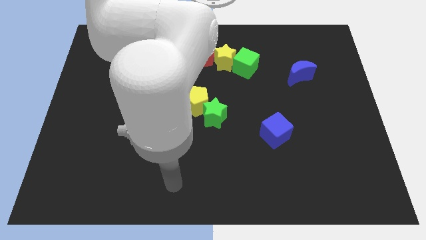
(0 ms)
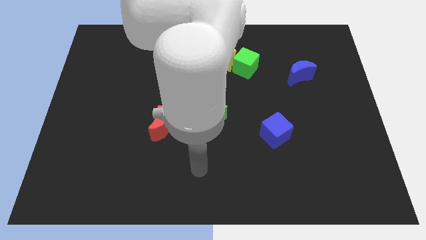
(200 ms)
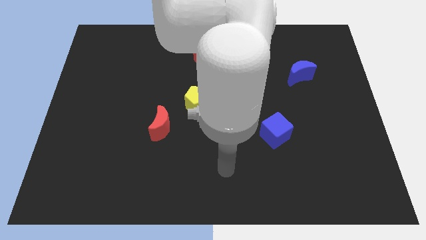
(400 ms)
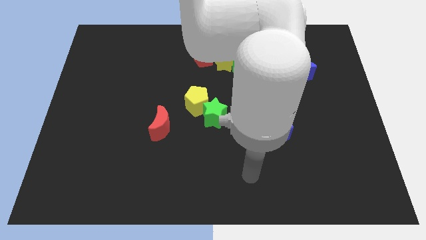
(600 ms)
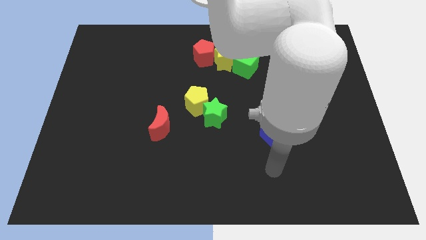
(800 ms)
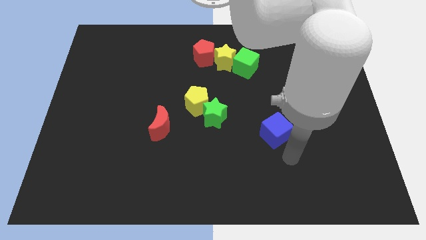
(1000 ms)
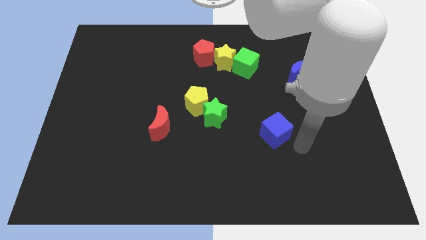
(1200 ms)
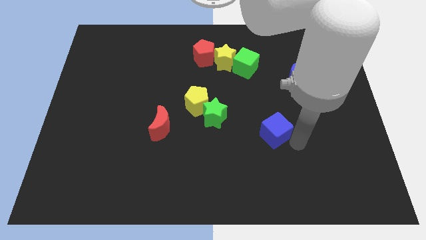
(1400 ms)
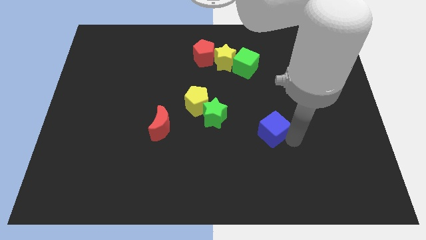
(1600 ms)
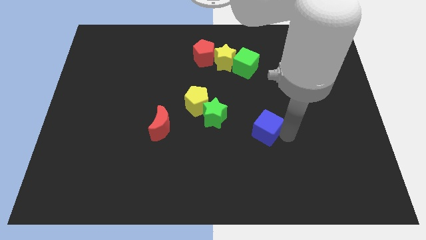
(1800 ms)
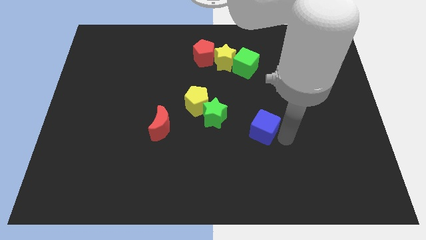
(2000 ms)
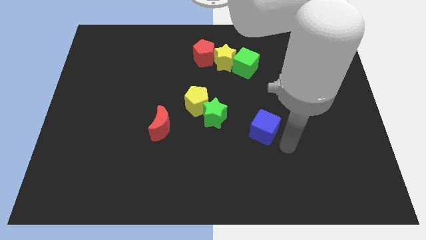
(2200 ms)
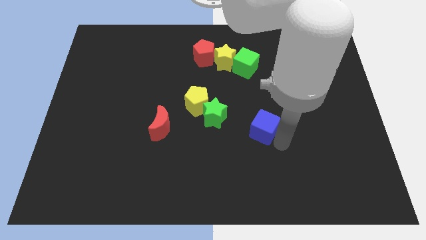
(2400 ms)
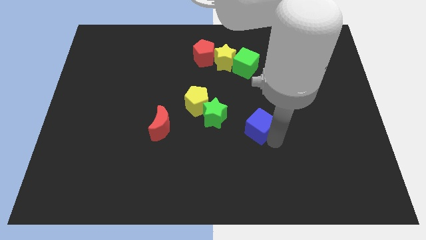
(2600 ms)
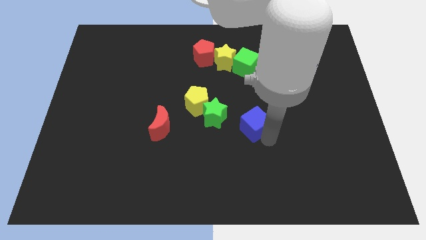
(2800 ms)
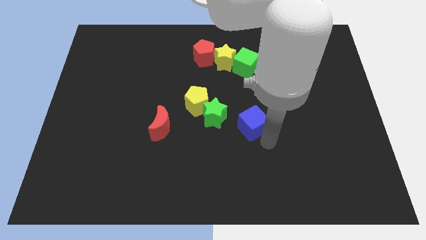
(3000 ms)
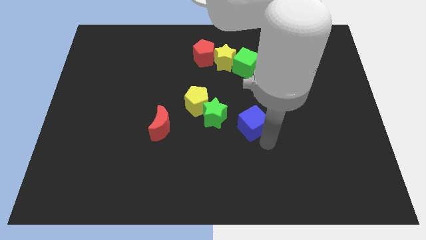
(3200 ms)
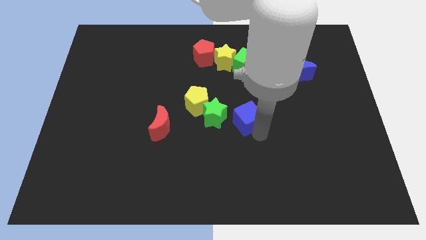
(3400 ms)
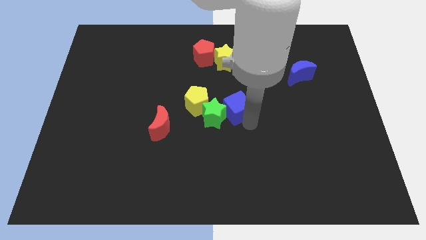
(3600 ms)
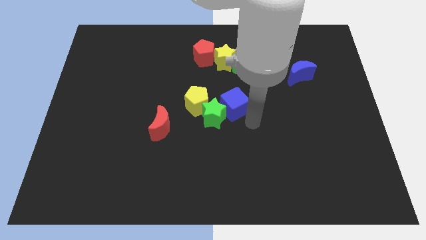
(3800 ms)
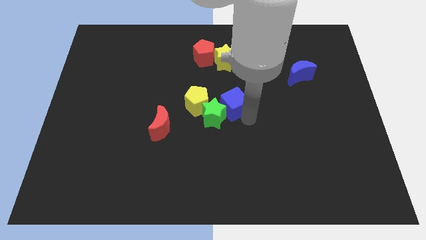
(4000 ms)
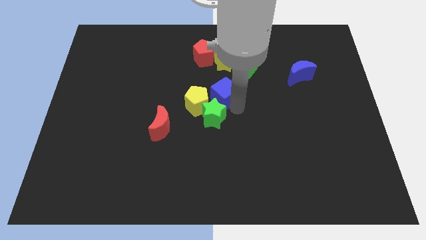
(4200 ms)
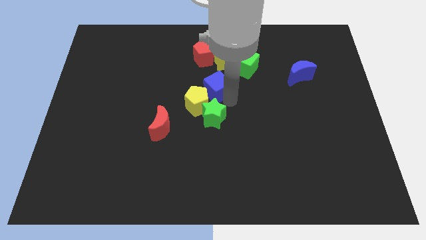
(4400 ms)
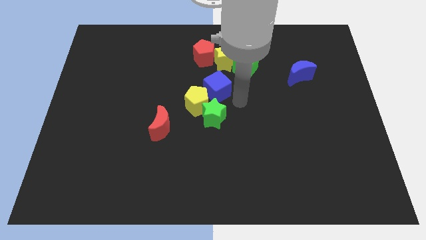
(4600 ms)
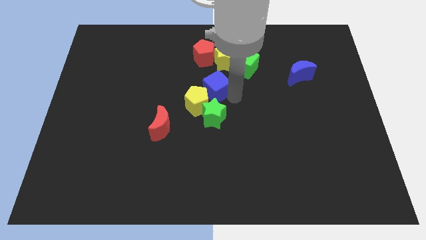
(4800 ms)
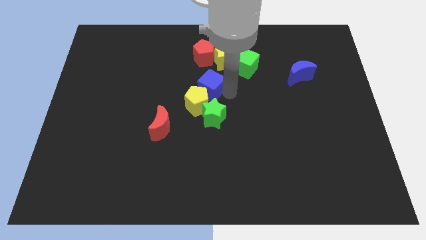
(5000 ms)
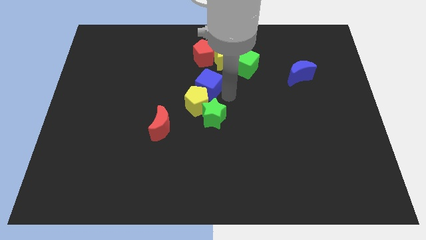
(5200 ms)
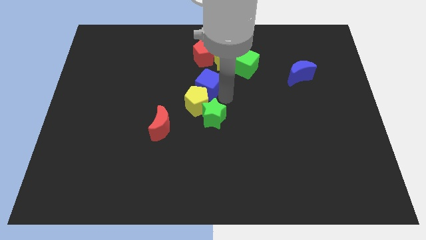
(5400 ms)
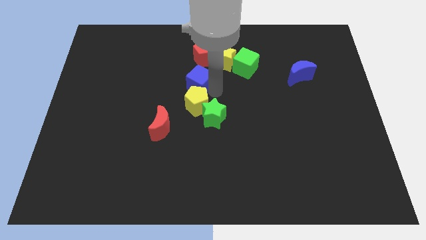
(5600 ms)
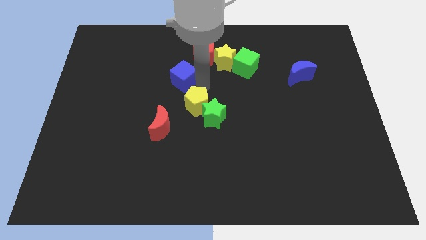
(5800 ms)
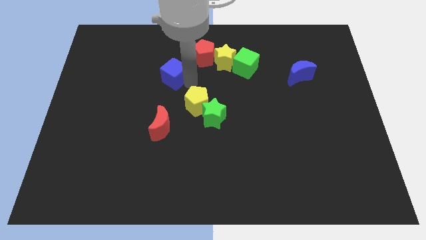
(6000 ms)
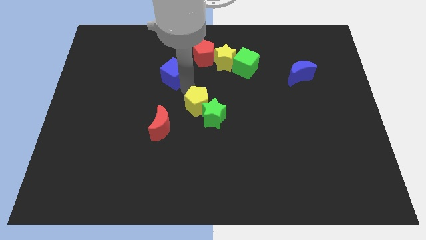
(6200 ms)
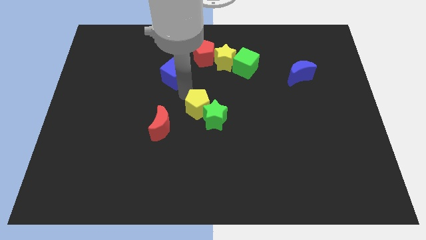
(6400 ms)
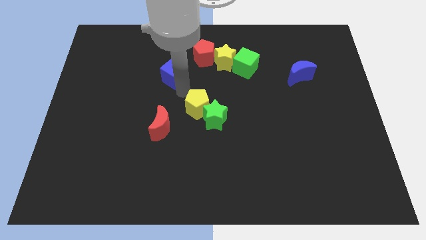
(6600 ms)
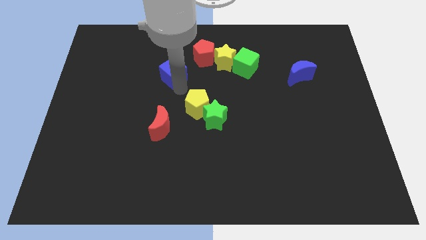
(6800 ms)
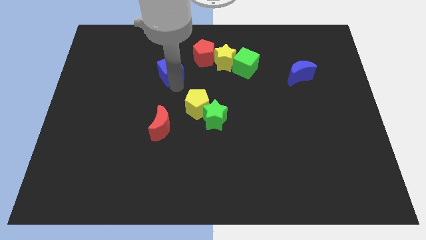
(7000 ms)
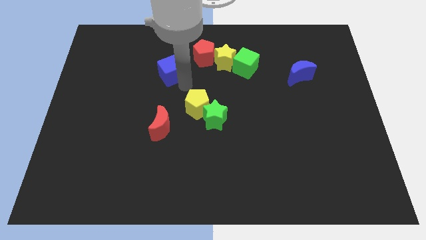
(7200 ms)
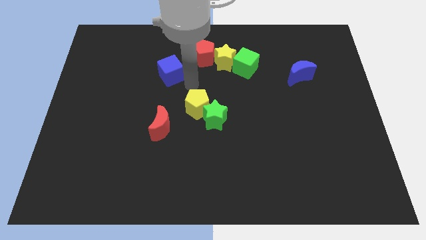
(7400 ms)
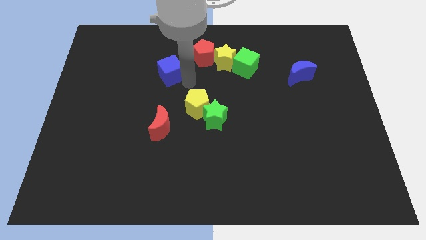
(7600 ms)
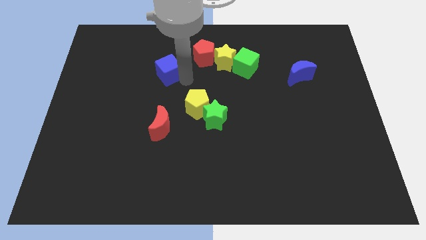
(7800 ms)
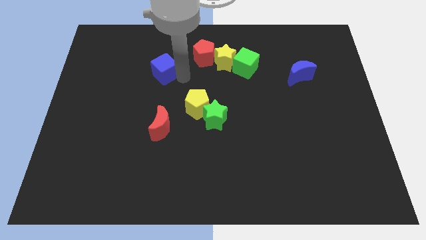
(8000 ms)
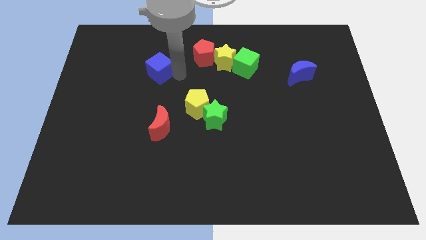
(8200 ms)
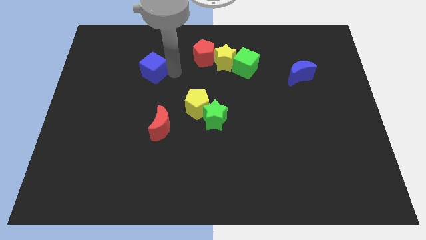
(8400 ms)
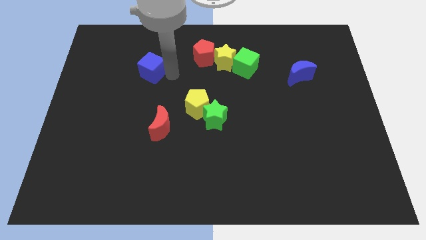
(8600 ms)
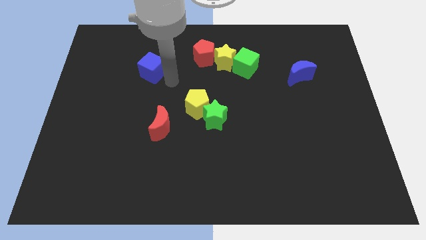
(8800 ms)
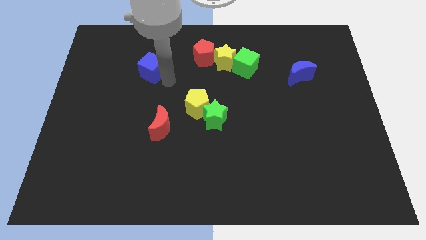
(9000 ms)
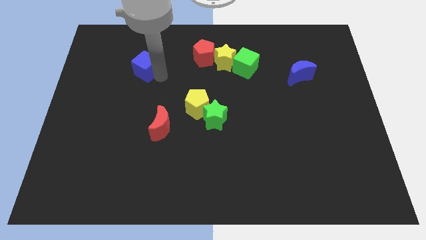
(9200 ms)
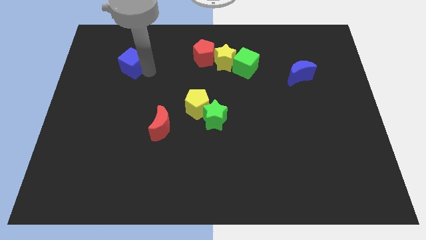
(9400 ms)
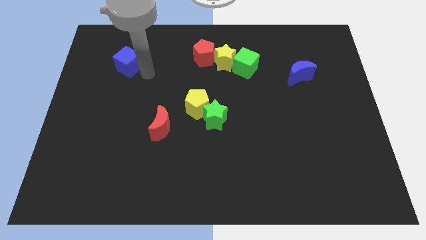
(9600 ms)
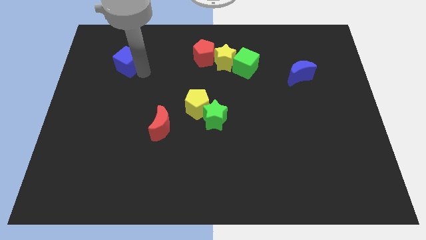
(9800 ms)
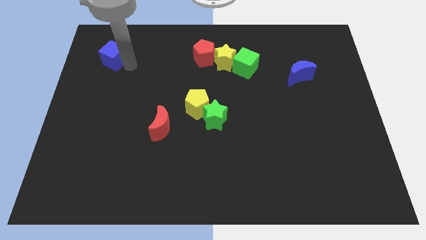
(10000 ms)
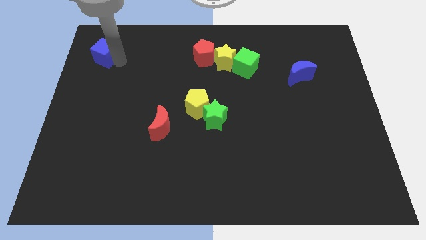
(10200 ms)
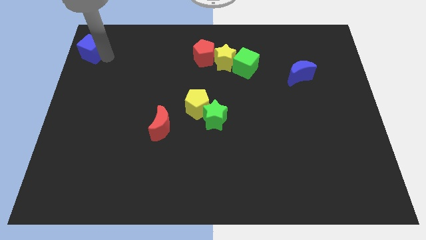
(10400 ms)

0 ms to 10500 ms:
move the blue cube to the top left corner
